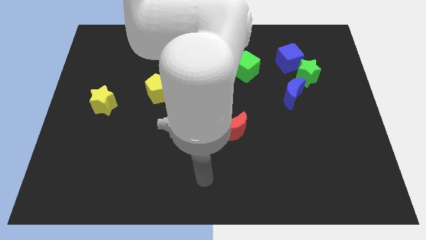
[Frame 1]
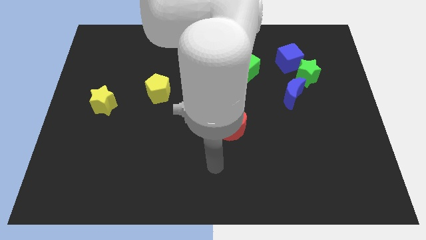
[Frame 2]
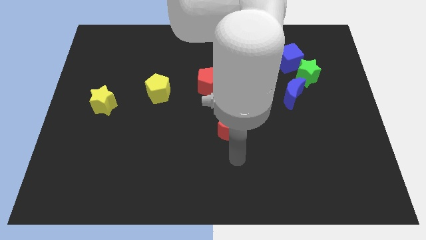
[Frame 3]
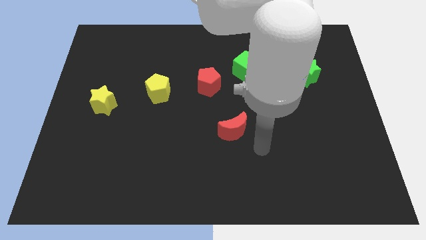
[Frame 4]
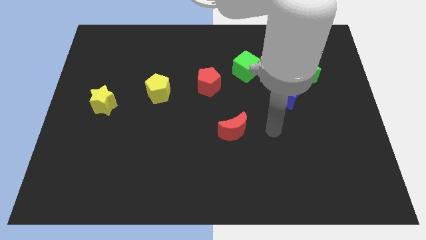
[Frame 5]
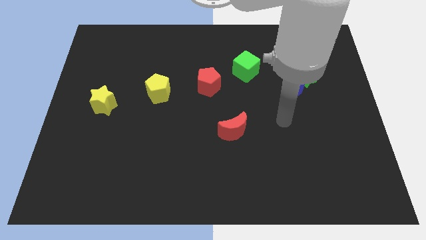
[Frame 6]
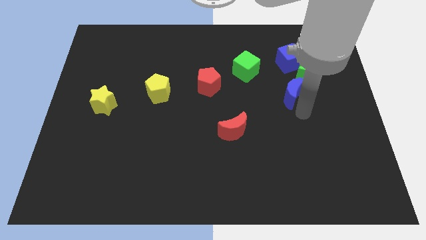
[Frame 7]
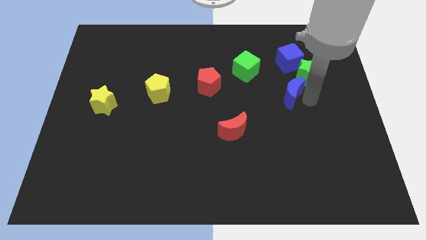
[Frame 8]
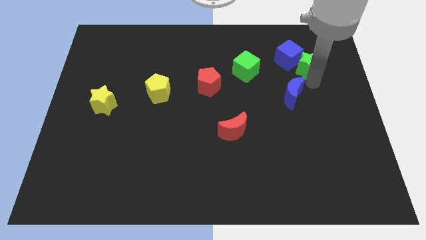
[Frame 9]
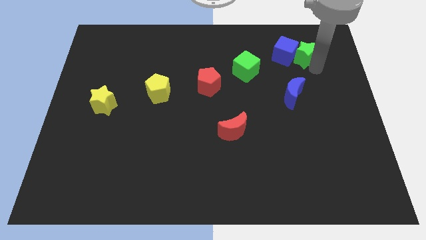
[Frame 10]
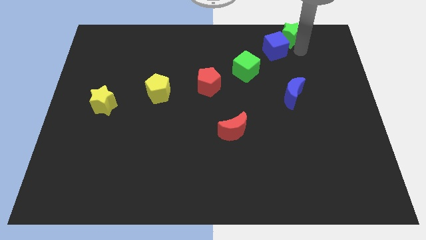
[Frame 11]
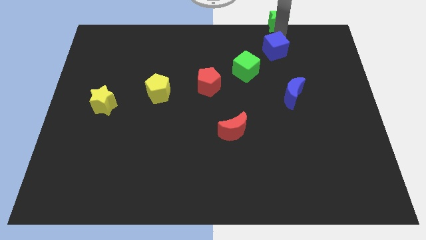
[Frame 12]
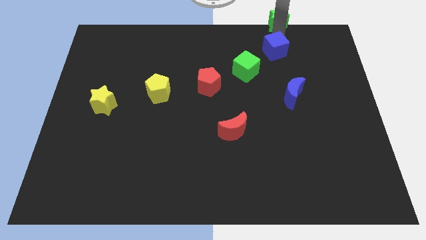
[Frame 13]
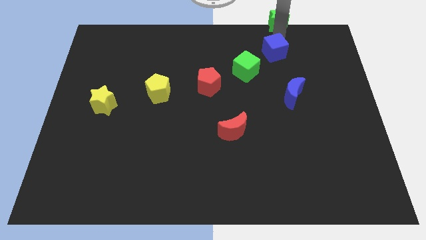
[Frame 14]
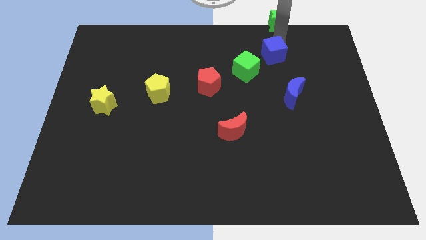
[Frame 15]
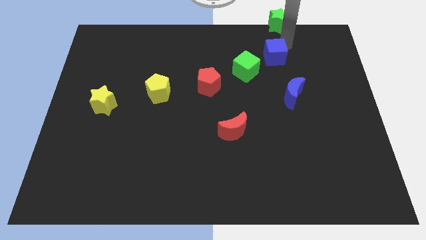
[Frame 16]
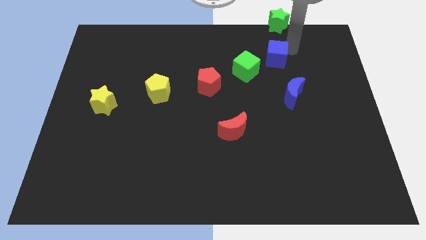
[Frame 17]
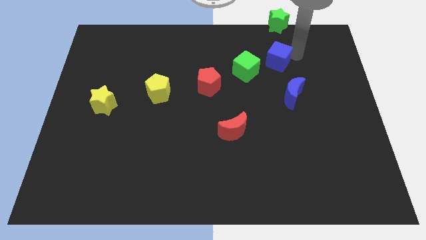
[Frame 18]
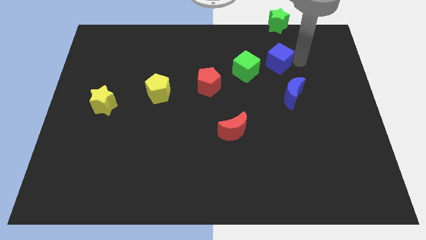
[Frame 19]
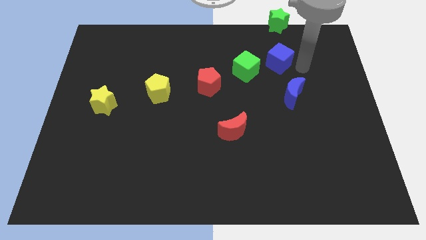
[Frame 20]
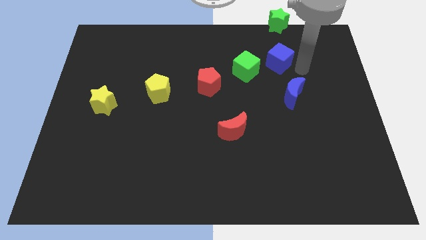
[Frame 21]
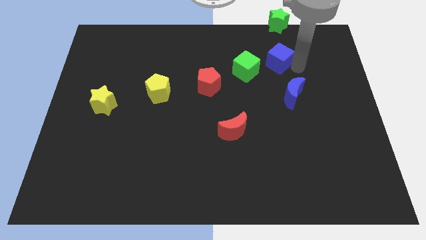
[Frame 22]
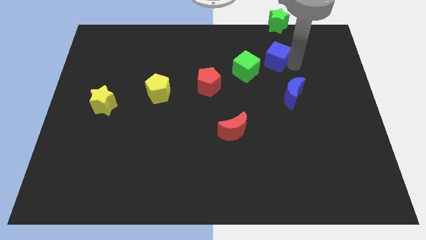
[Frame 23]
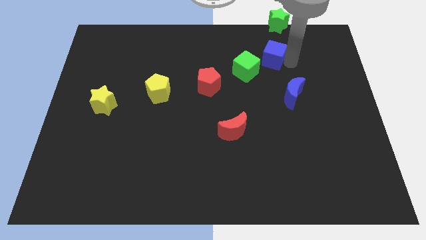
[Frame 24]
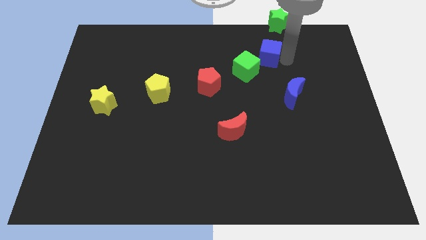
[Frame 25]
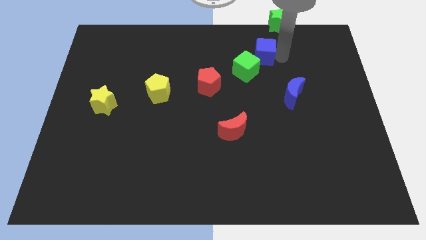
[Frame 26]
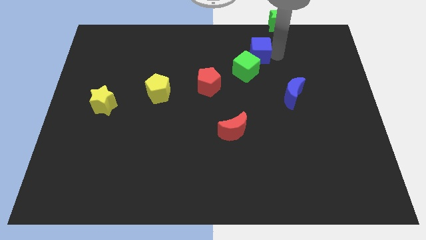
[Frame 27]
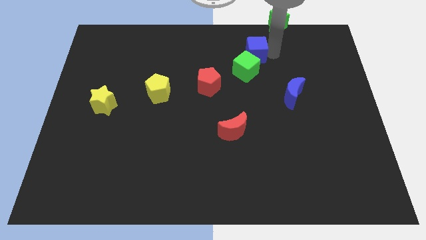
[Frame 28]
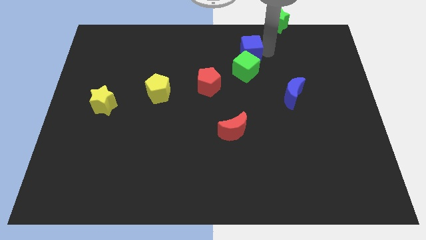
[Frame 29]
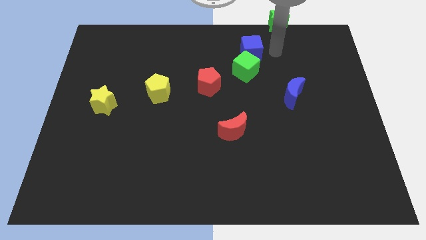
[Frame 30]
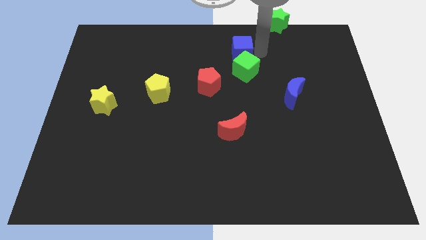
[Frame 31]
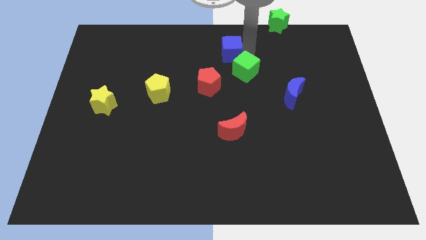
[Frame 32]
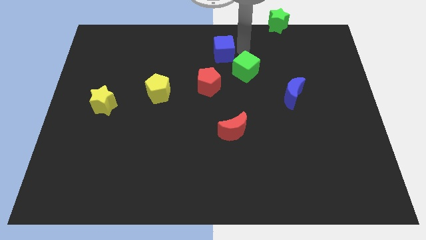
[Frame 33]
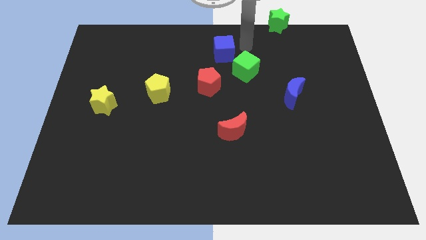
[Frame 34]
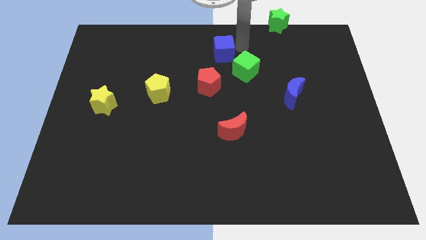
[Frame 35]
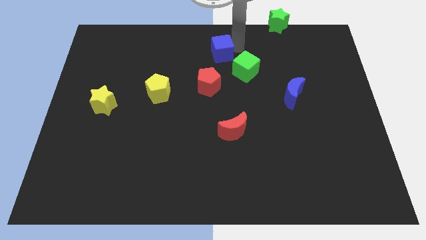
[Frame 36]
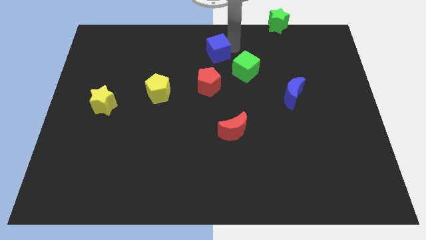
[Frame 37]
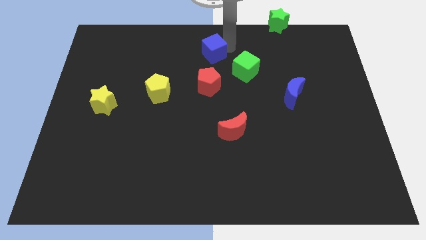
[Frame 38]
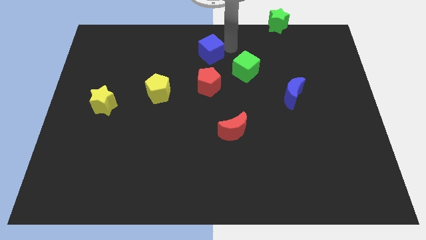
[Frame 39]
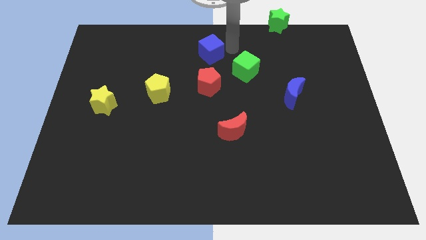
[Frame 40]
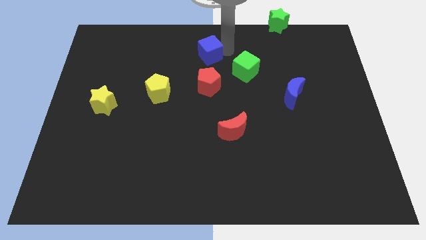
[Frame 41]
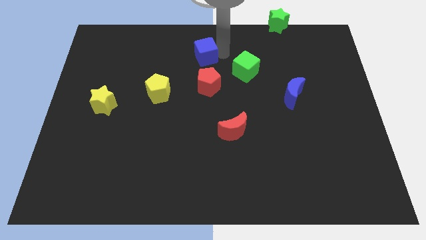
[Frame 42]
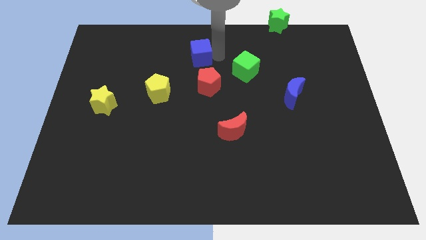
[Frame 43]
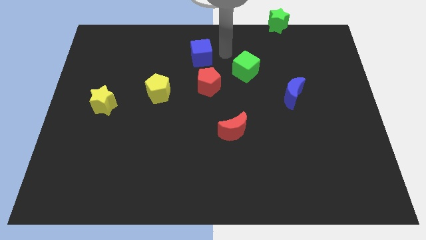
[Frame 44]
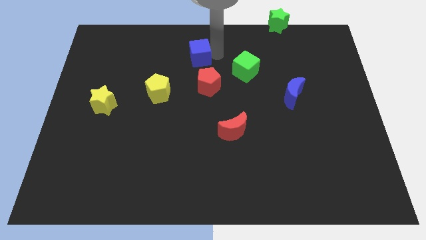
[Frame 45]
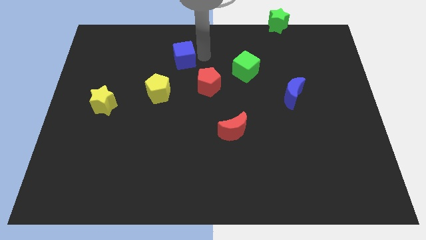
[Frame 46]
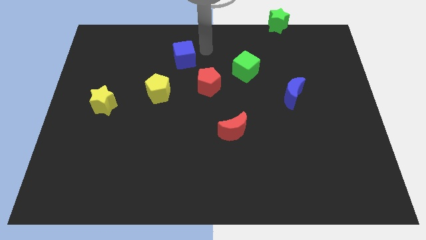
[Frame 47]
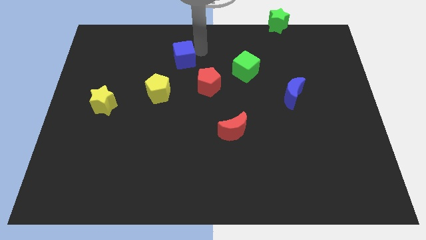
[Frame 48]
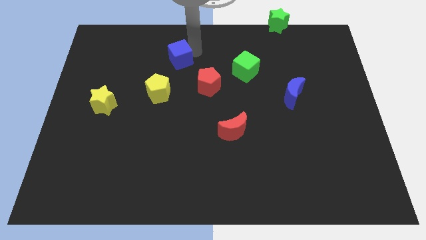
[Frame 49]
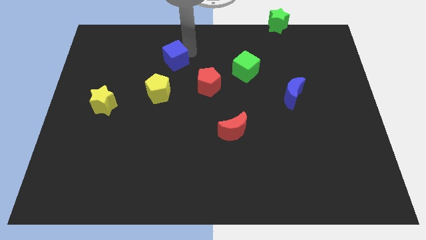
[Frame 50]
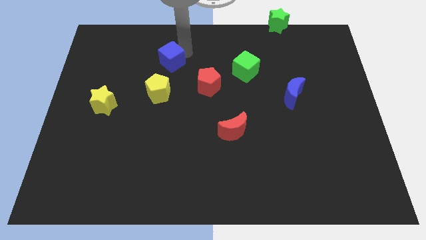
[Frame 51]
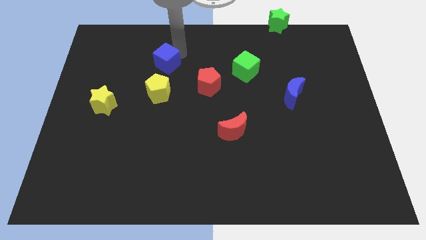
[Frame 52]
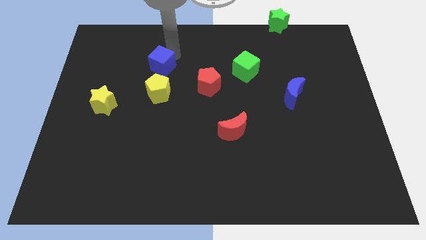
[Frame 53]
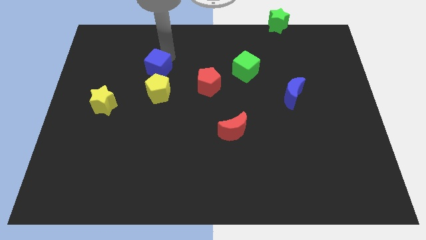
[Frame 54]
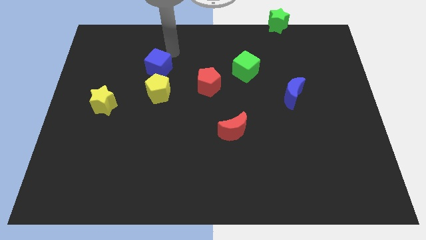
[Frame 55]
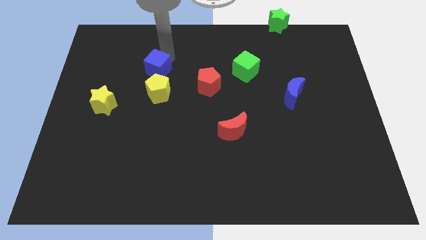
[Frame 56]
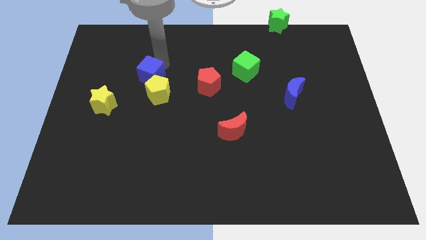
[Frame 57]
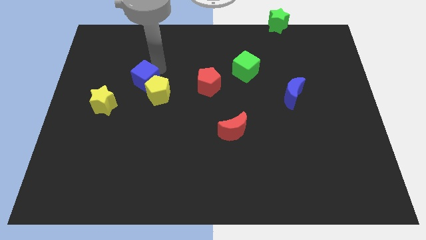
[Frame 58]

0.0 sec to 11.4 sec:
push the blue cube to the top right of the yellow star

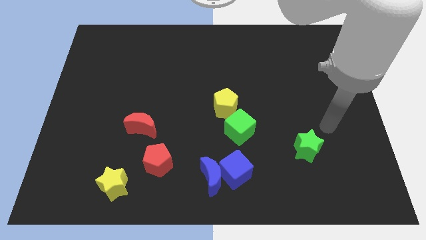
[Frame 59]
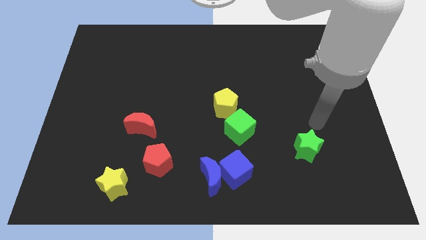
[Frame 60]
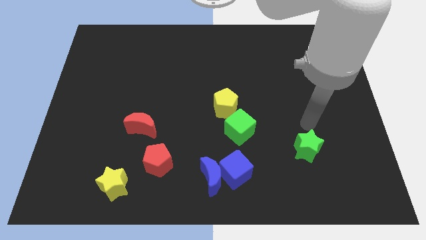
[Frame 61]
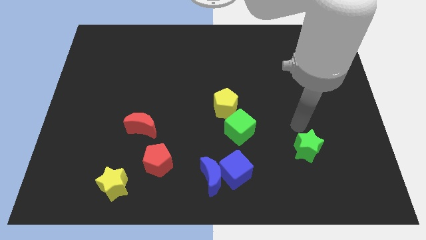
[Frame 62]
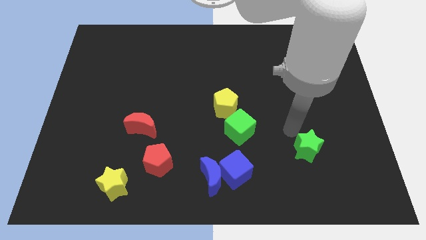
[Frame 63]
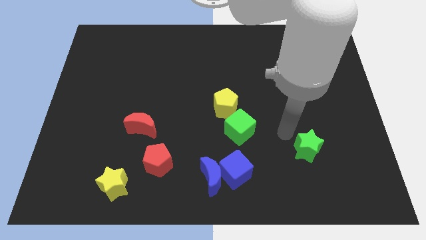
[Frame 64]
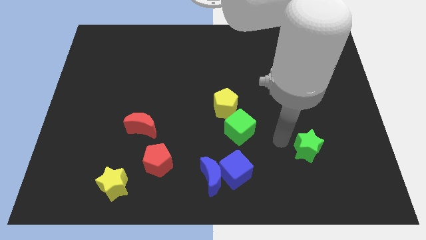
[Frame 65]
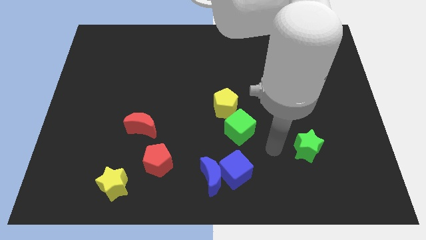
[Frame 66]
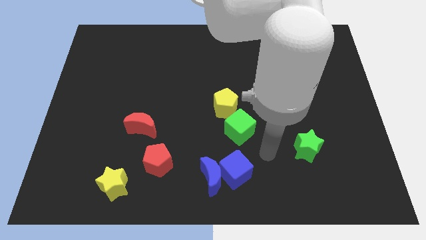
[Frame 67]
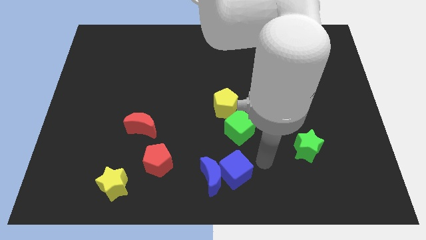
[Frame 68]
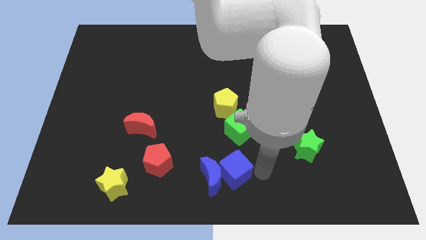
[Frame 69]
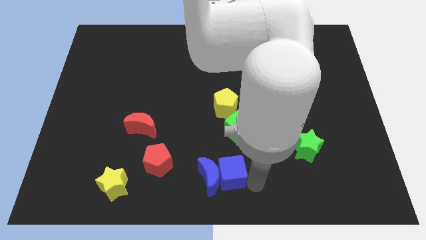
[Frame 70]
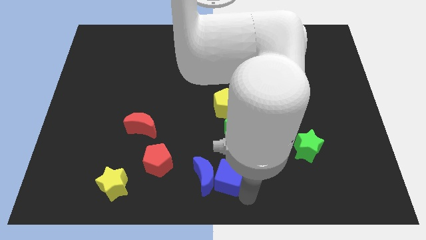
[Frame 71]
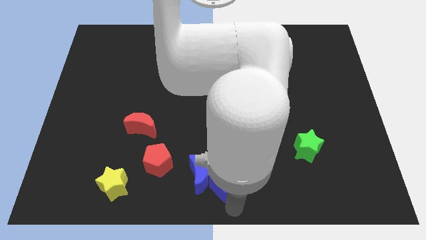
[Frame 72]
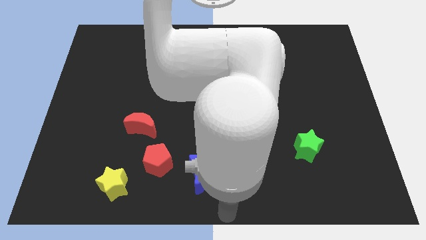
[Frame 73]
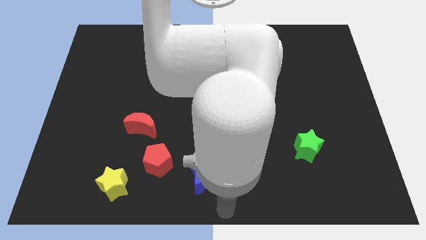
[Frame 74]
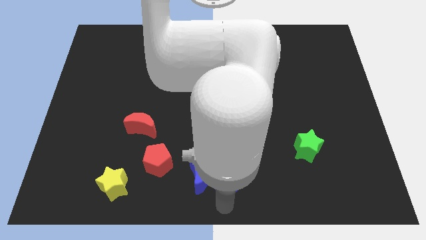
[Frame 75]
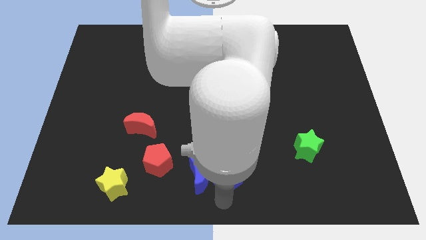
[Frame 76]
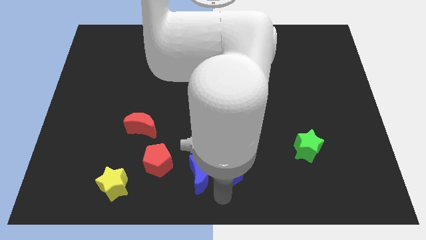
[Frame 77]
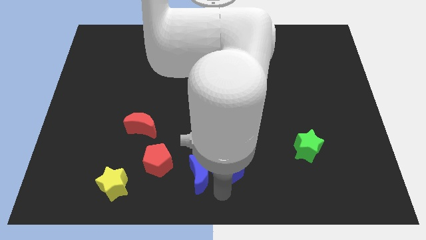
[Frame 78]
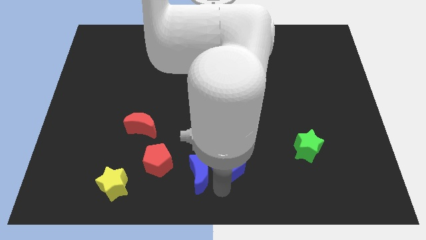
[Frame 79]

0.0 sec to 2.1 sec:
push the blue cube below the yellow pentagon
